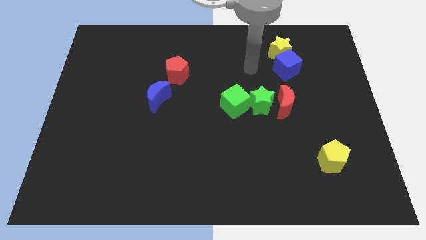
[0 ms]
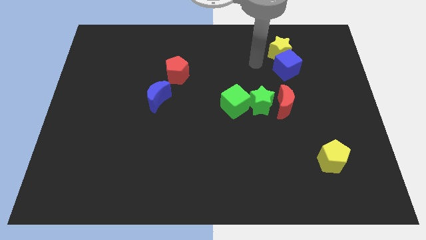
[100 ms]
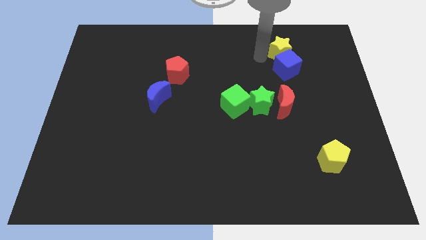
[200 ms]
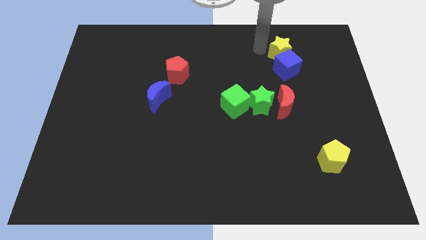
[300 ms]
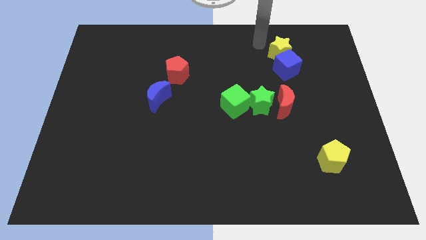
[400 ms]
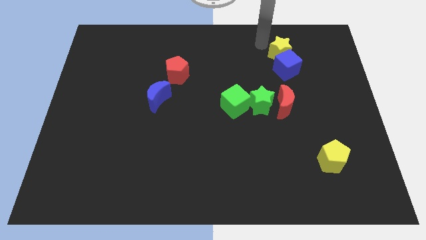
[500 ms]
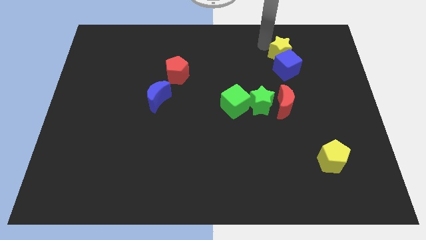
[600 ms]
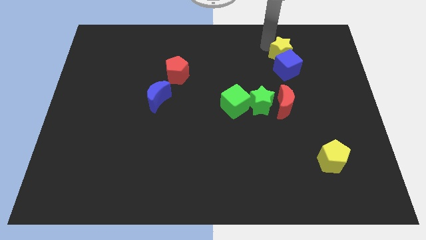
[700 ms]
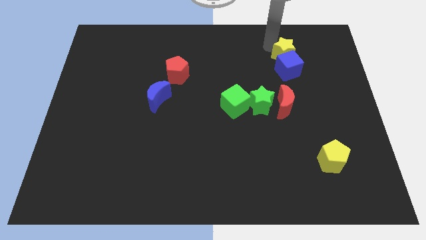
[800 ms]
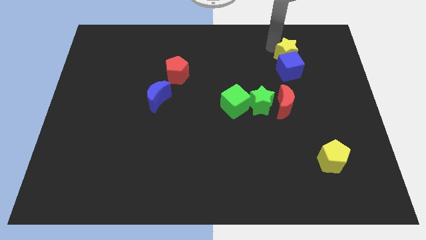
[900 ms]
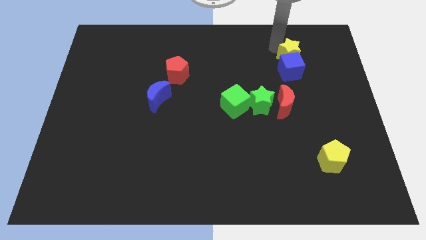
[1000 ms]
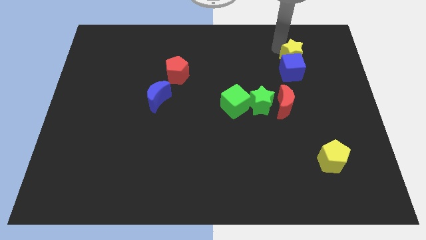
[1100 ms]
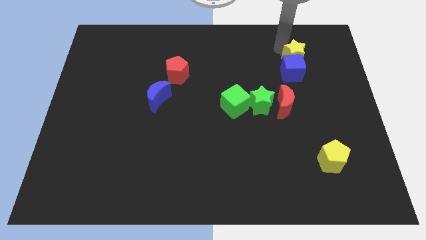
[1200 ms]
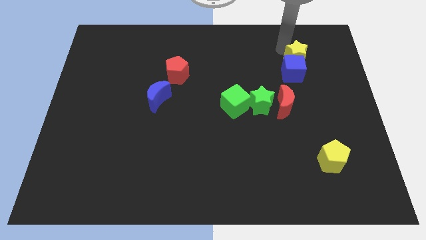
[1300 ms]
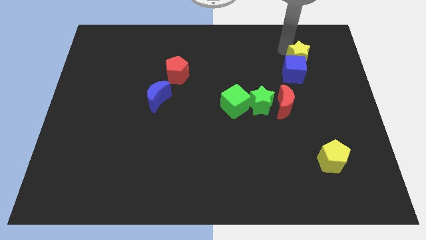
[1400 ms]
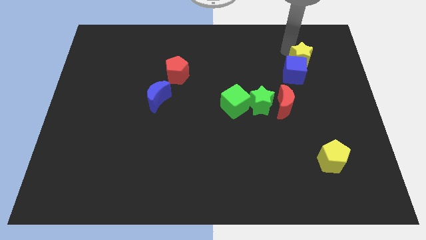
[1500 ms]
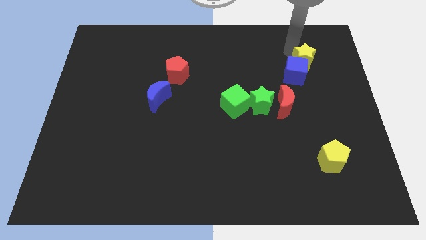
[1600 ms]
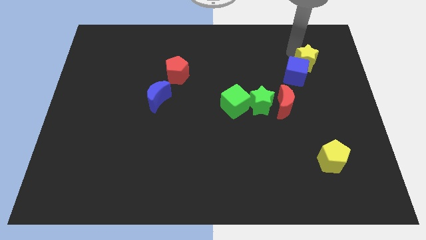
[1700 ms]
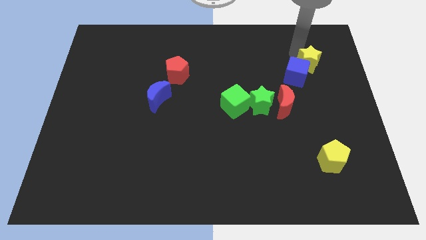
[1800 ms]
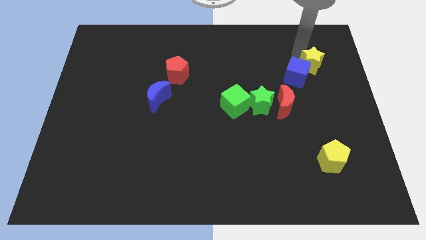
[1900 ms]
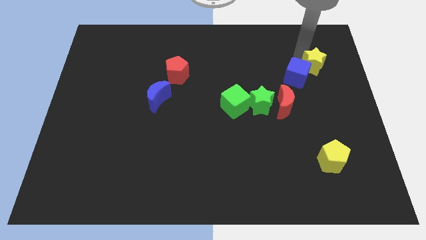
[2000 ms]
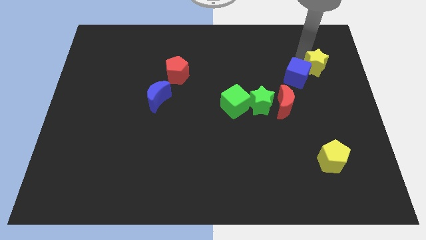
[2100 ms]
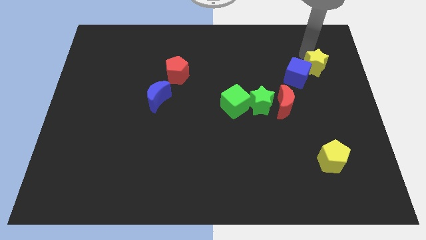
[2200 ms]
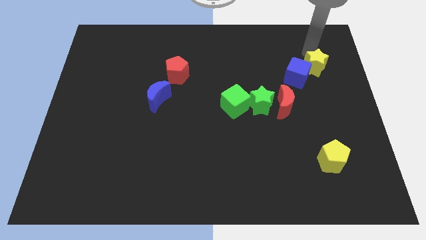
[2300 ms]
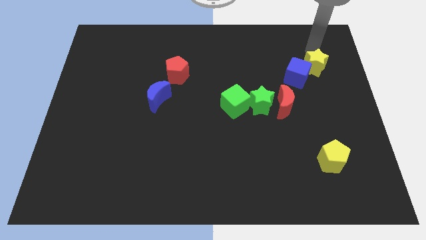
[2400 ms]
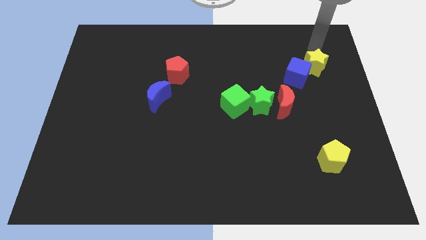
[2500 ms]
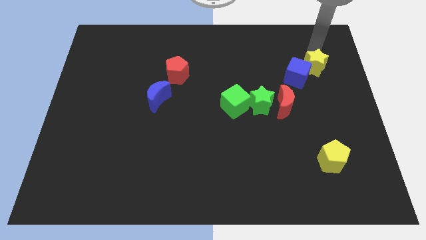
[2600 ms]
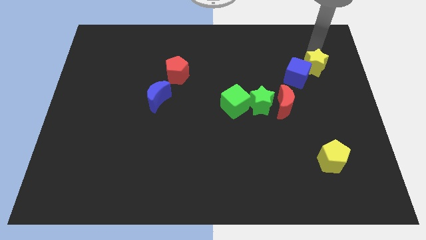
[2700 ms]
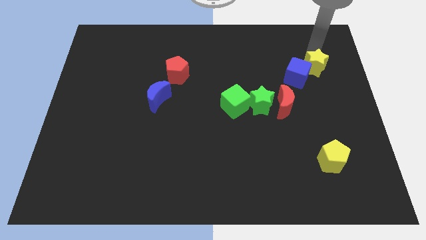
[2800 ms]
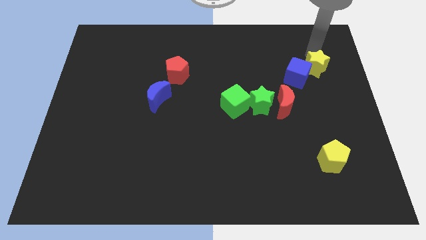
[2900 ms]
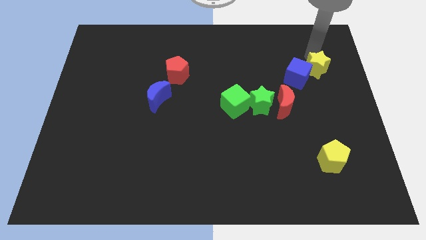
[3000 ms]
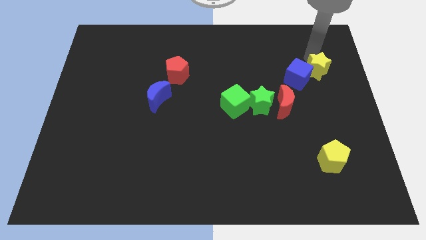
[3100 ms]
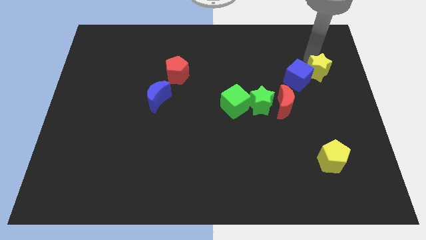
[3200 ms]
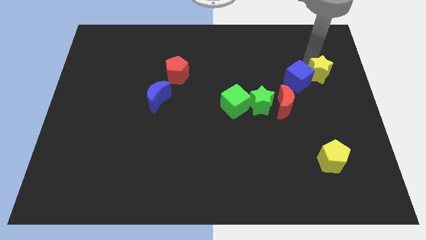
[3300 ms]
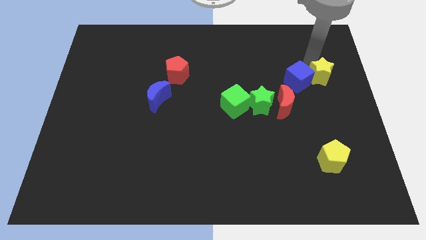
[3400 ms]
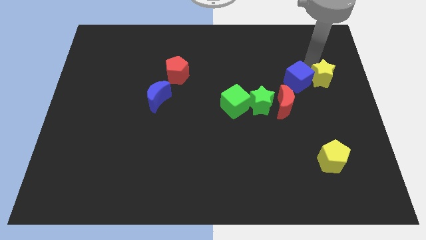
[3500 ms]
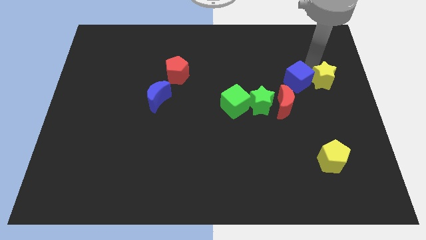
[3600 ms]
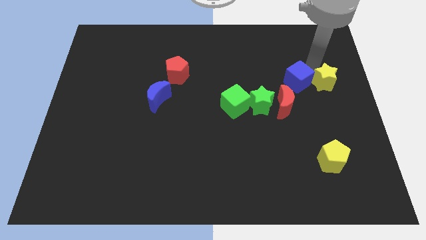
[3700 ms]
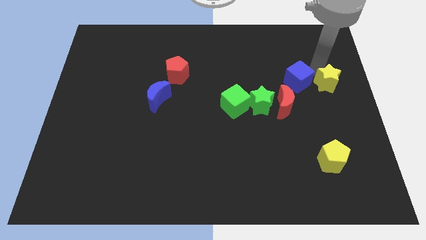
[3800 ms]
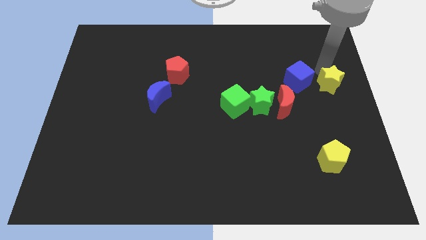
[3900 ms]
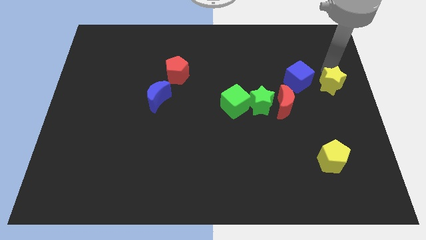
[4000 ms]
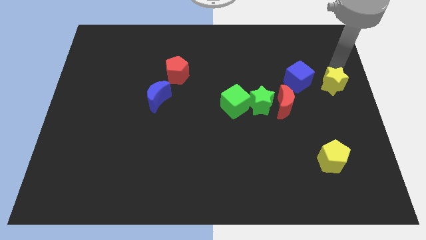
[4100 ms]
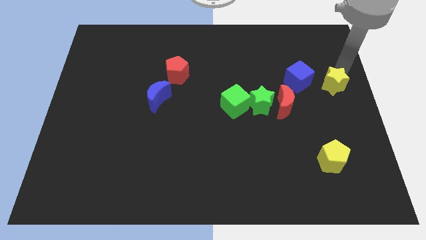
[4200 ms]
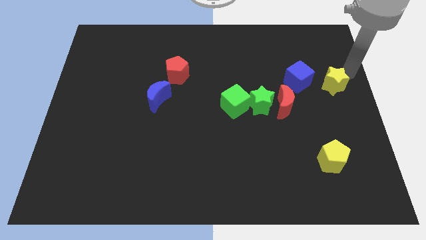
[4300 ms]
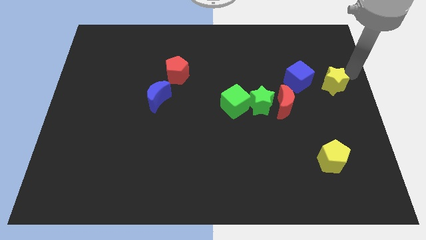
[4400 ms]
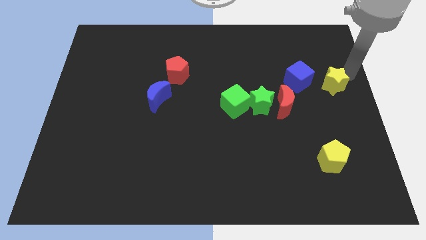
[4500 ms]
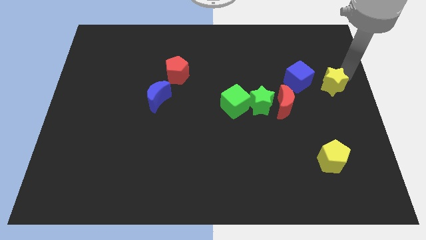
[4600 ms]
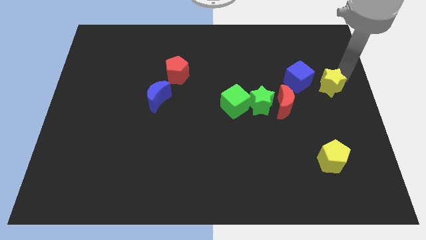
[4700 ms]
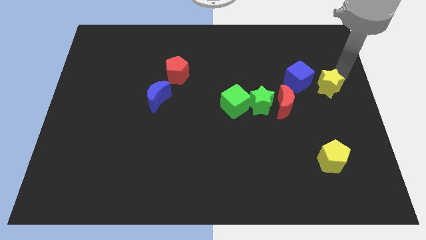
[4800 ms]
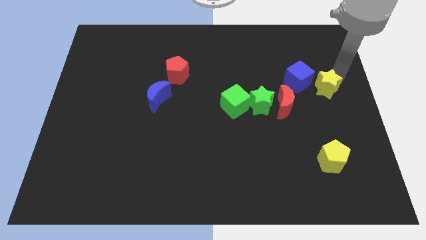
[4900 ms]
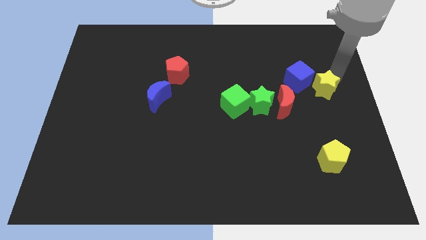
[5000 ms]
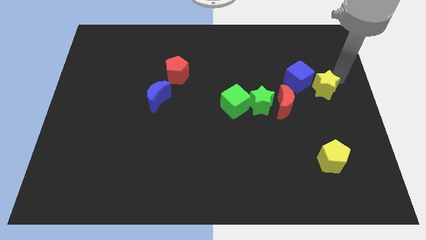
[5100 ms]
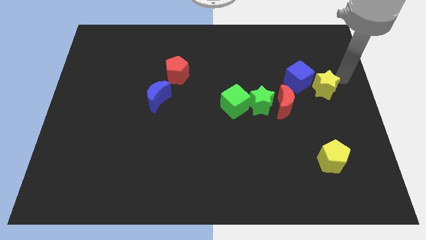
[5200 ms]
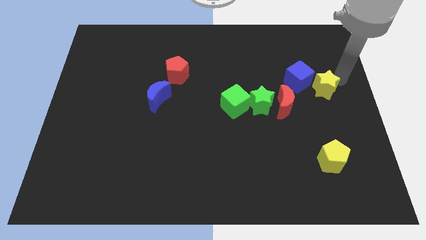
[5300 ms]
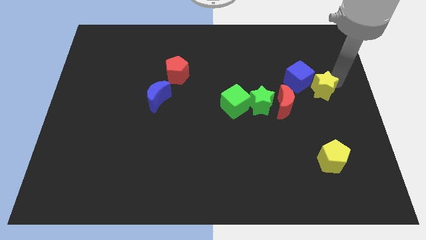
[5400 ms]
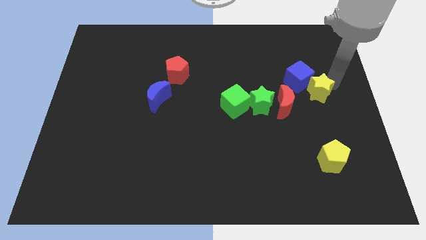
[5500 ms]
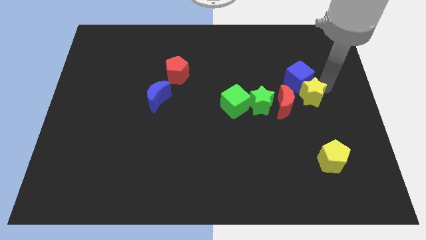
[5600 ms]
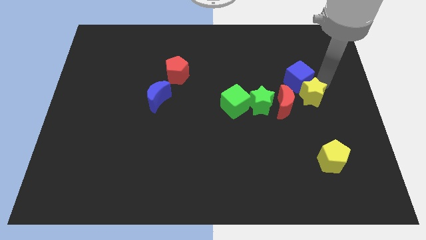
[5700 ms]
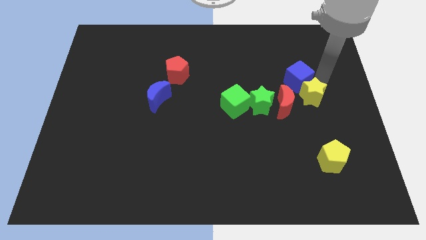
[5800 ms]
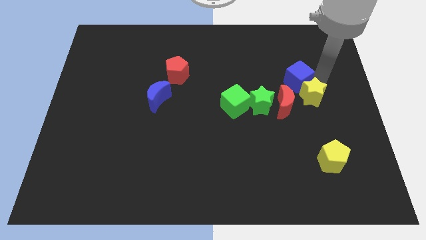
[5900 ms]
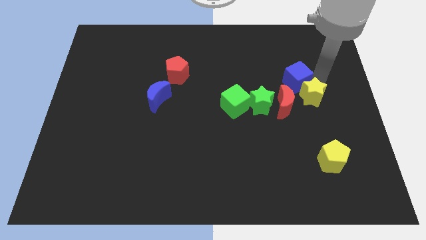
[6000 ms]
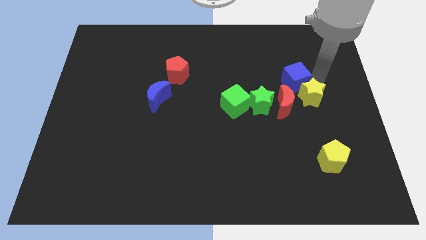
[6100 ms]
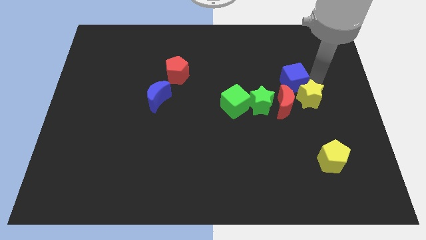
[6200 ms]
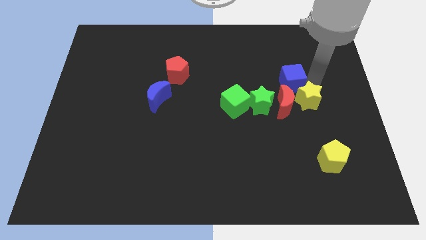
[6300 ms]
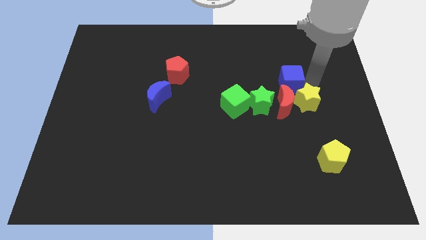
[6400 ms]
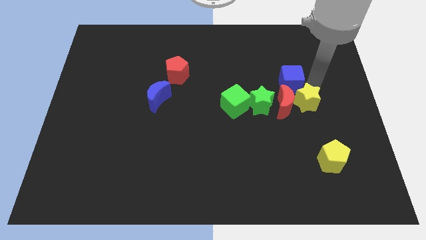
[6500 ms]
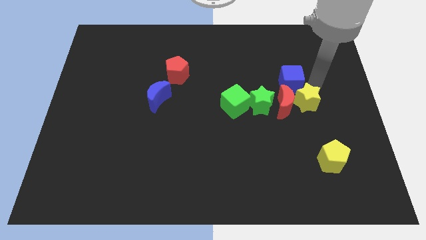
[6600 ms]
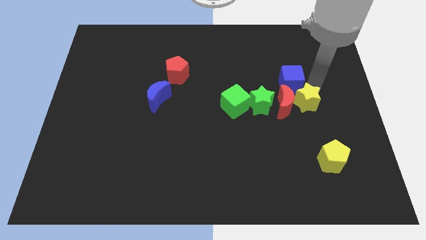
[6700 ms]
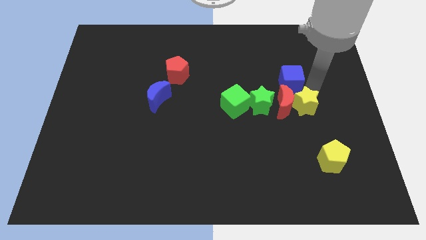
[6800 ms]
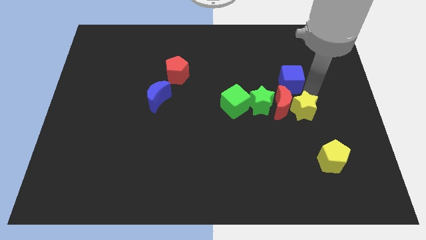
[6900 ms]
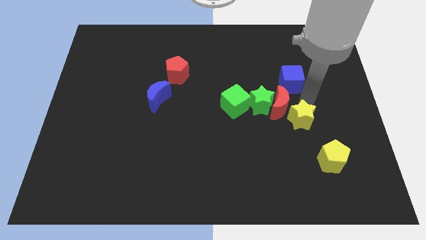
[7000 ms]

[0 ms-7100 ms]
put the yellow star to the bottom side of the red moon

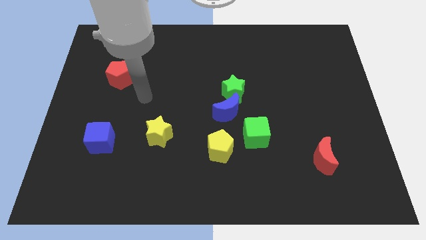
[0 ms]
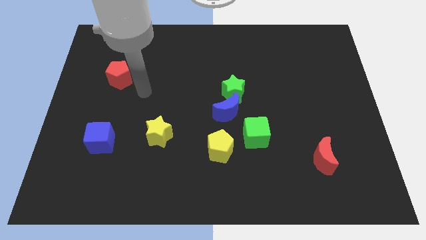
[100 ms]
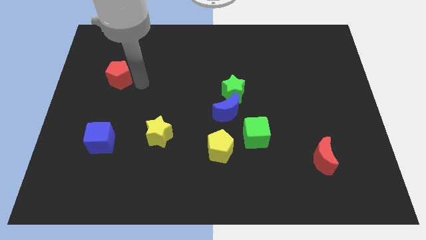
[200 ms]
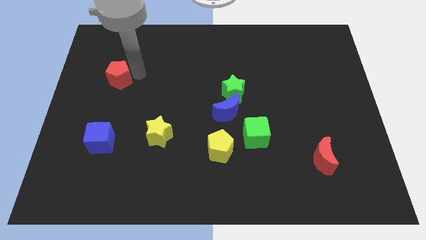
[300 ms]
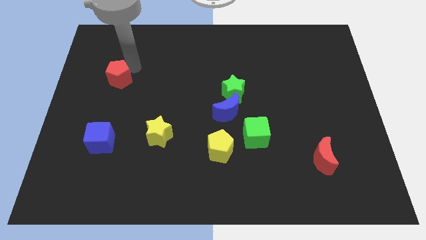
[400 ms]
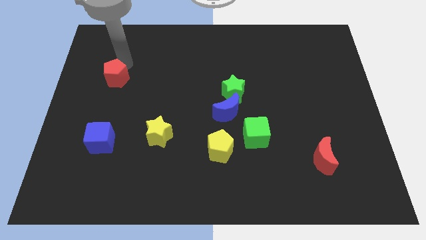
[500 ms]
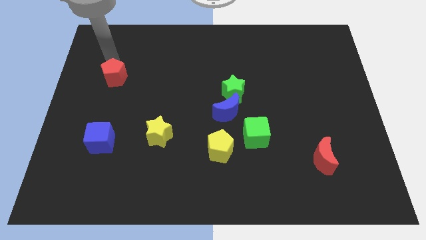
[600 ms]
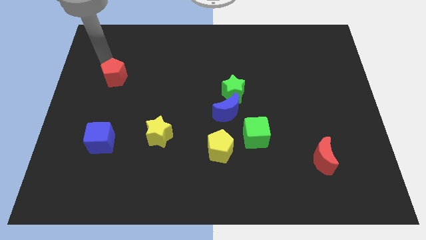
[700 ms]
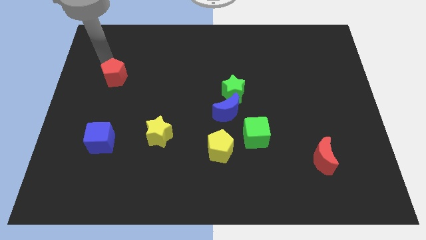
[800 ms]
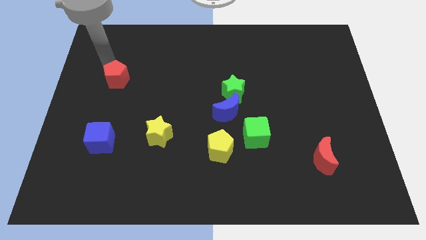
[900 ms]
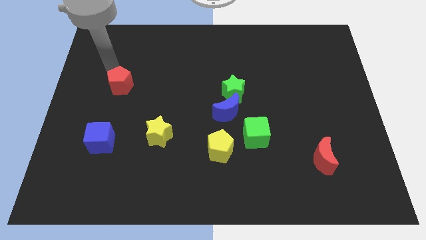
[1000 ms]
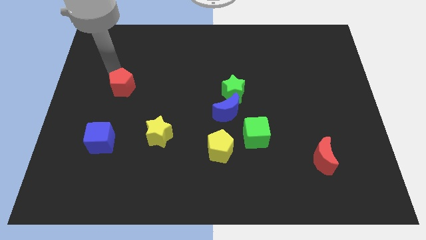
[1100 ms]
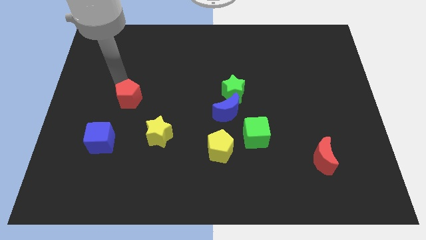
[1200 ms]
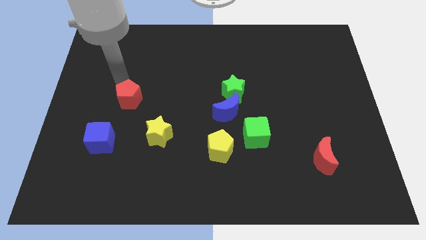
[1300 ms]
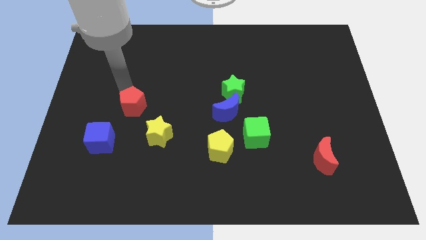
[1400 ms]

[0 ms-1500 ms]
move the red pentagon diagonally up and to the left of the yellow star
